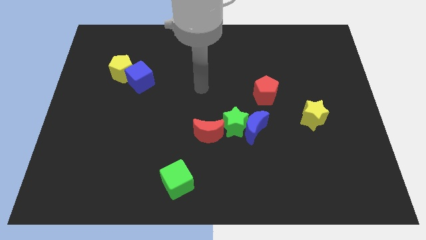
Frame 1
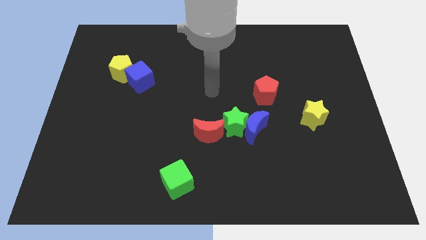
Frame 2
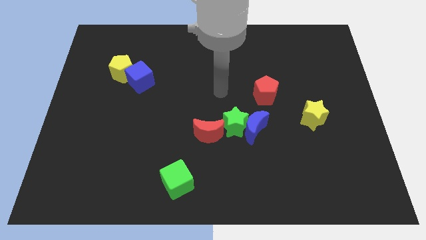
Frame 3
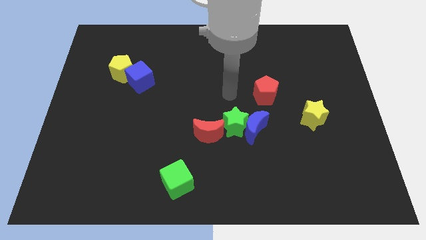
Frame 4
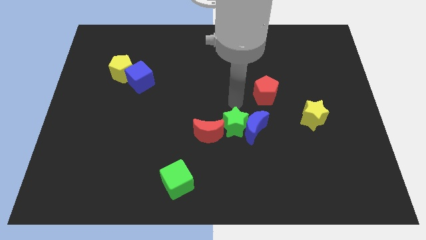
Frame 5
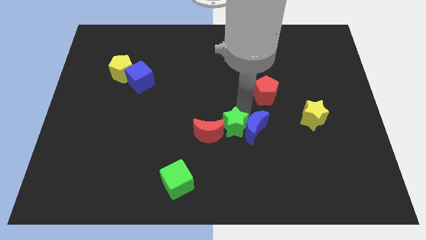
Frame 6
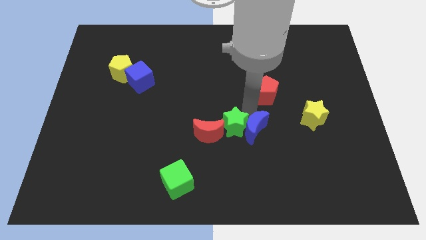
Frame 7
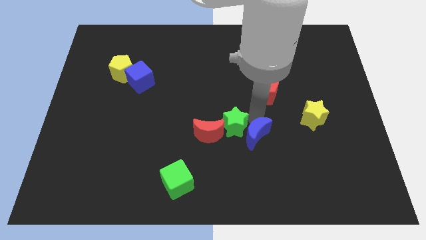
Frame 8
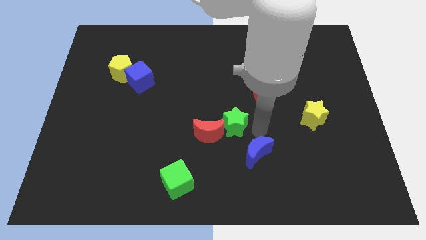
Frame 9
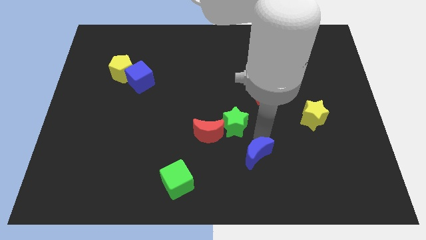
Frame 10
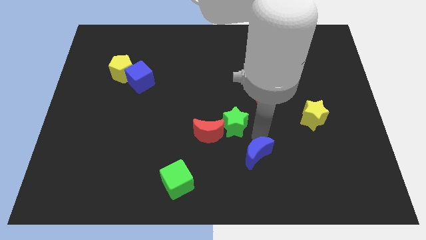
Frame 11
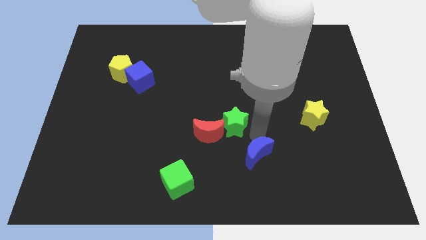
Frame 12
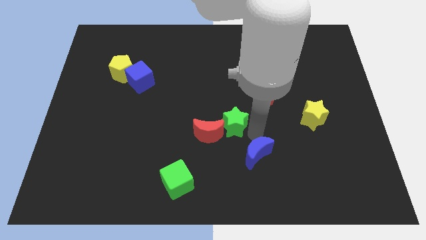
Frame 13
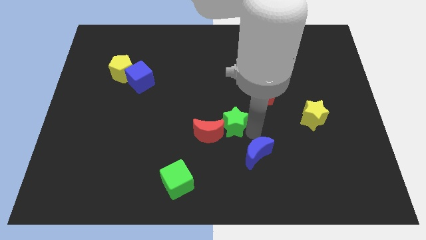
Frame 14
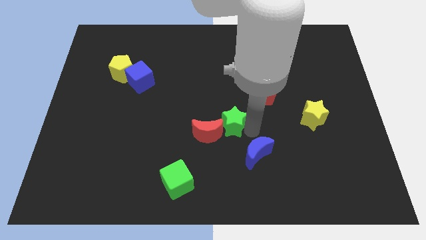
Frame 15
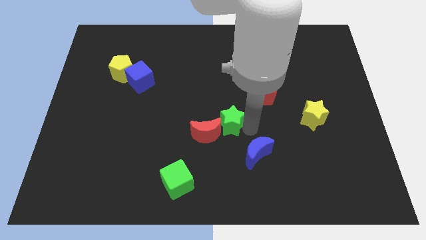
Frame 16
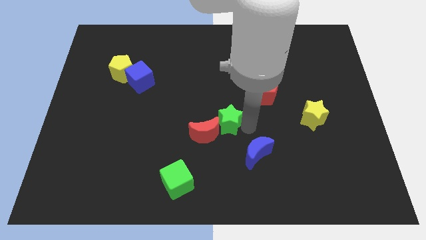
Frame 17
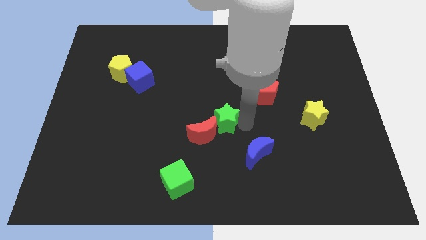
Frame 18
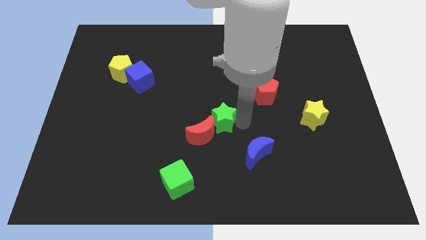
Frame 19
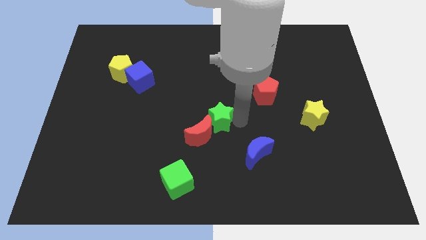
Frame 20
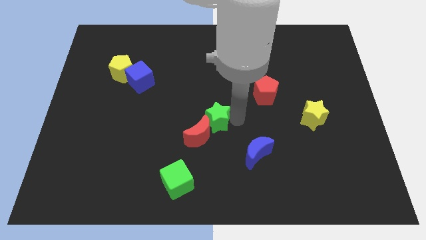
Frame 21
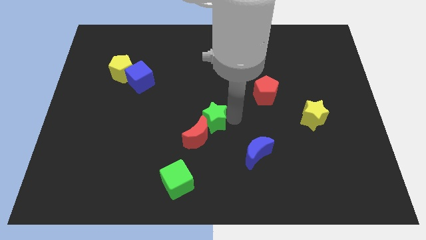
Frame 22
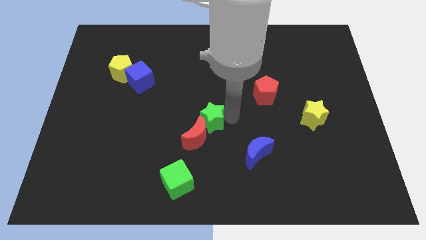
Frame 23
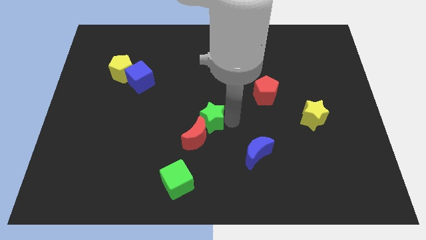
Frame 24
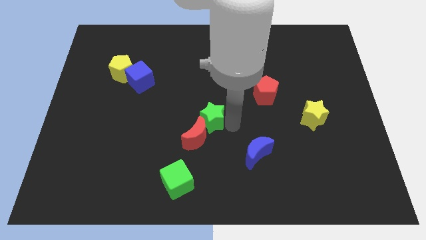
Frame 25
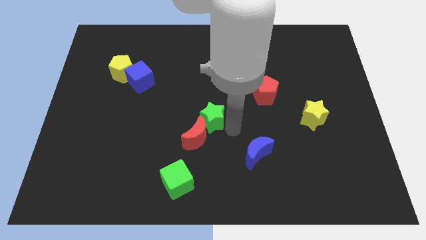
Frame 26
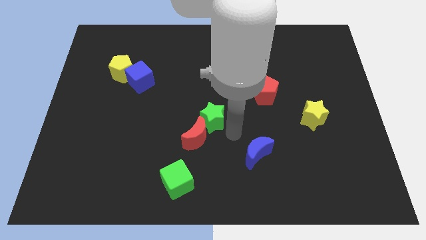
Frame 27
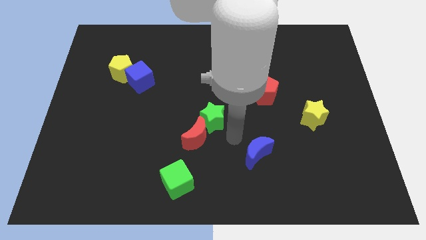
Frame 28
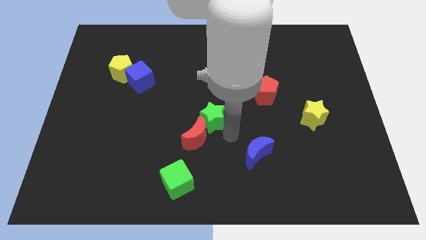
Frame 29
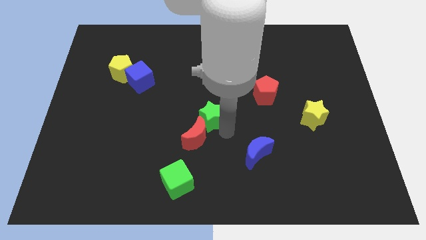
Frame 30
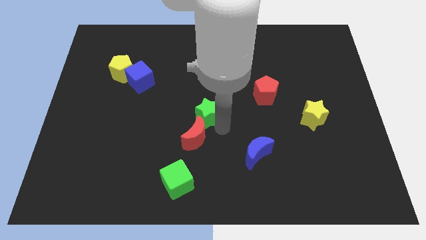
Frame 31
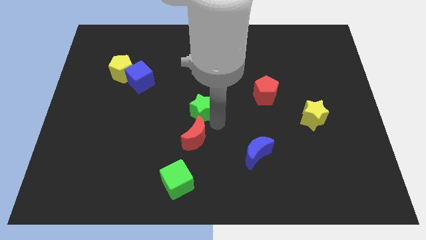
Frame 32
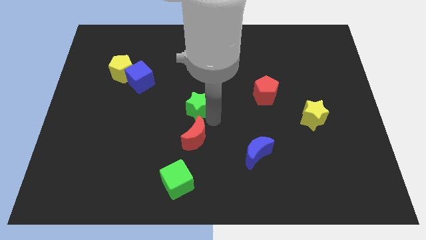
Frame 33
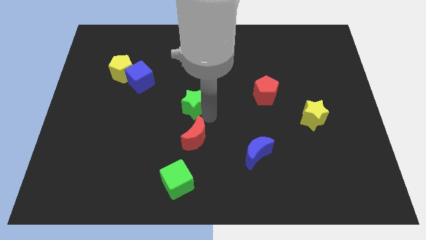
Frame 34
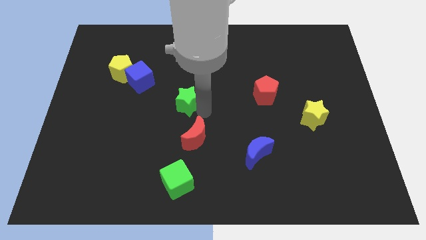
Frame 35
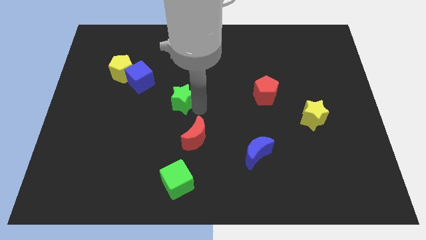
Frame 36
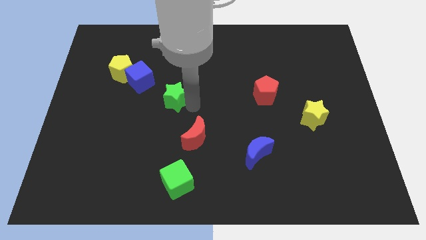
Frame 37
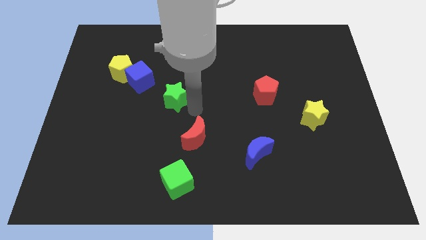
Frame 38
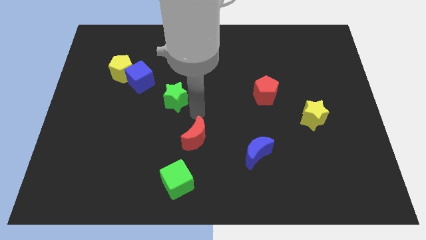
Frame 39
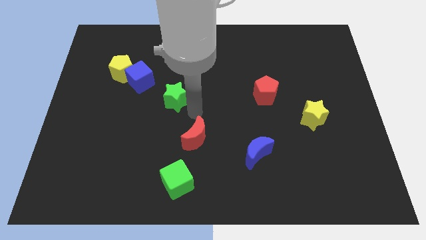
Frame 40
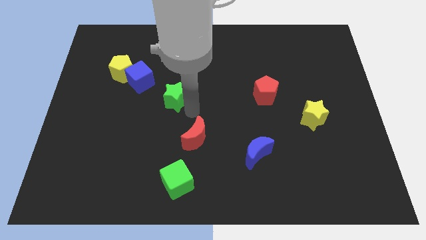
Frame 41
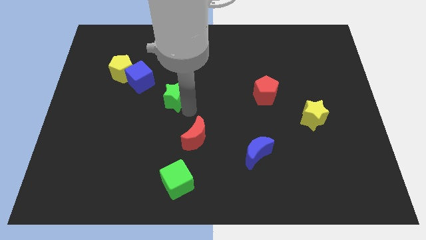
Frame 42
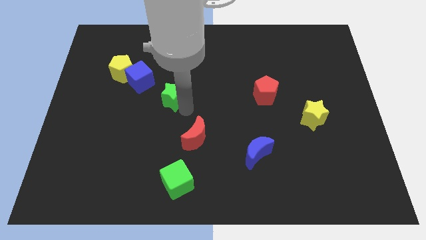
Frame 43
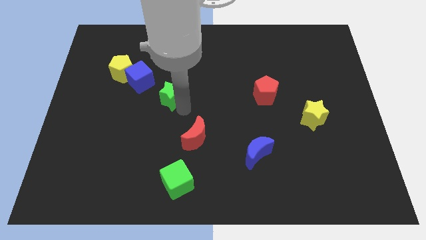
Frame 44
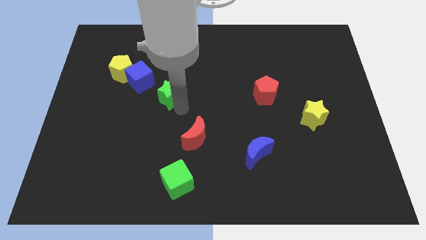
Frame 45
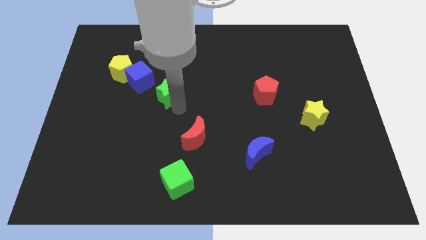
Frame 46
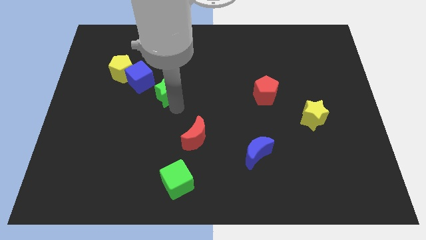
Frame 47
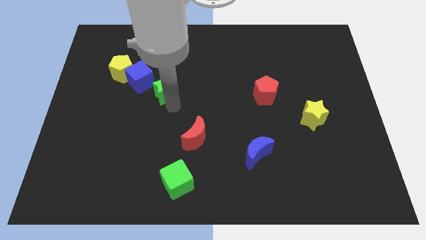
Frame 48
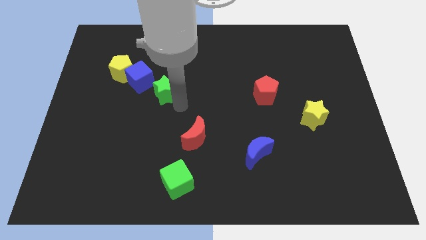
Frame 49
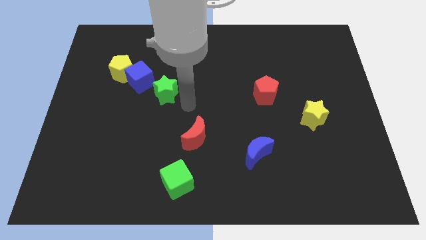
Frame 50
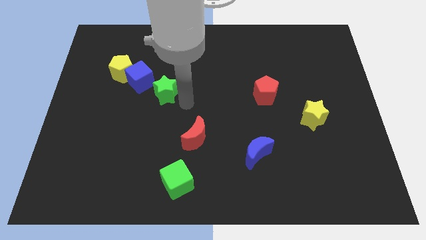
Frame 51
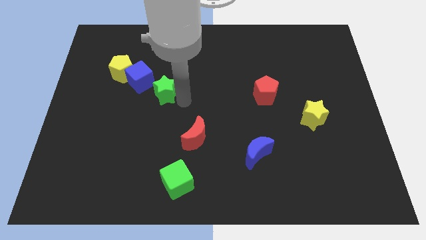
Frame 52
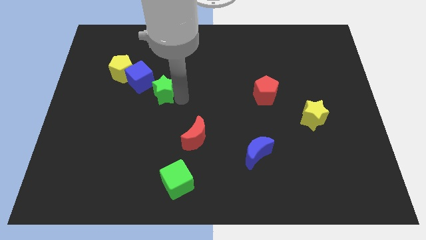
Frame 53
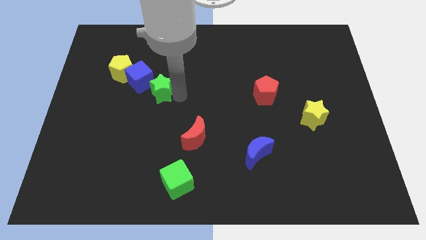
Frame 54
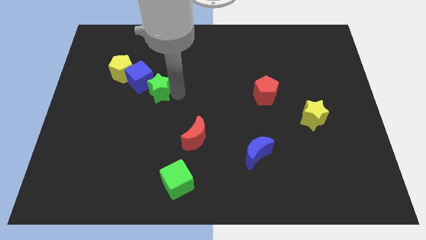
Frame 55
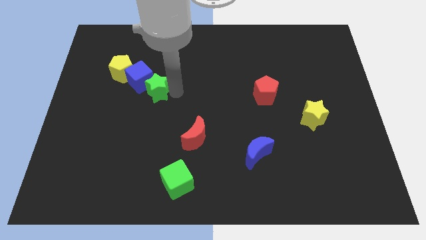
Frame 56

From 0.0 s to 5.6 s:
slide the green star to the blue cube

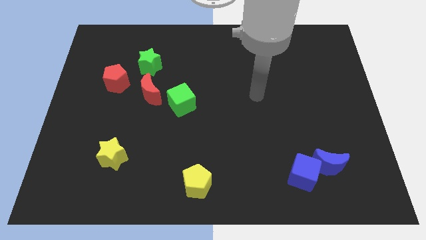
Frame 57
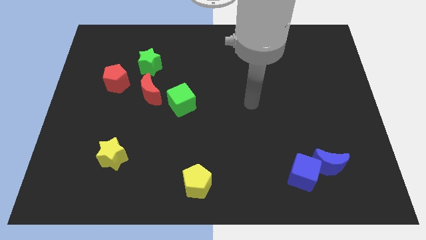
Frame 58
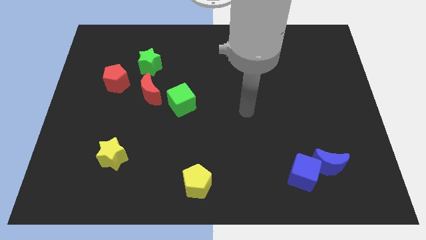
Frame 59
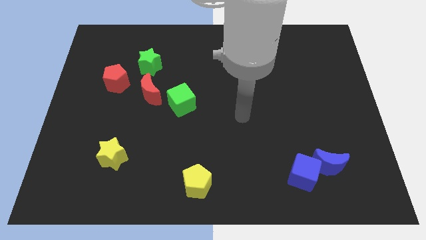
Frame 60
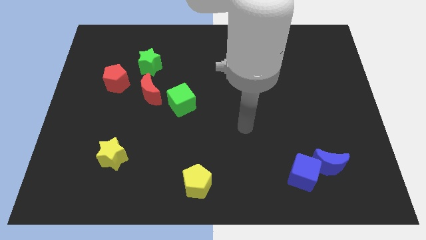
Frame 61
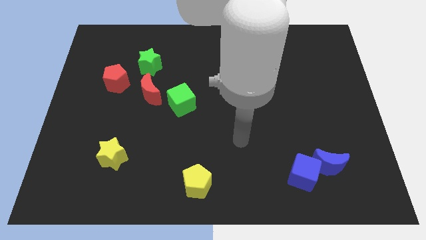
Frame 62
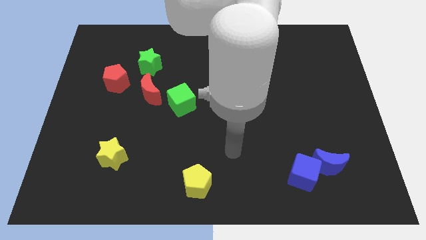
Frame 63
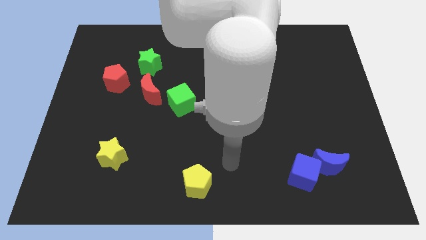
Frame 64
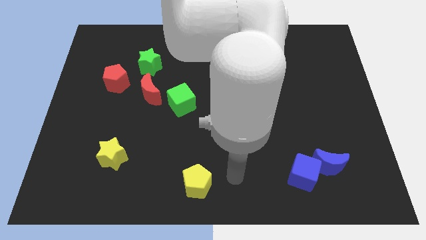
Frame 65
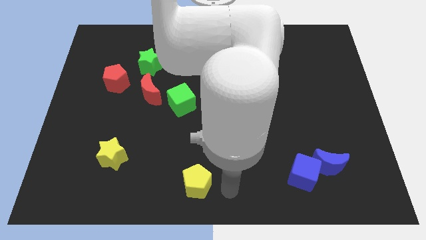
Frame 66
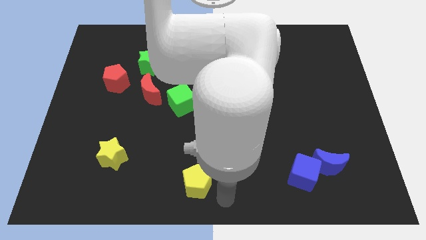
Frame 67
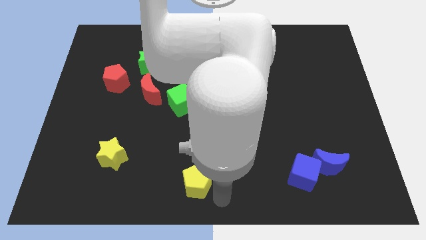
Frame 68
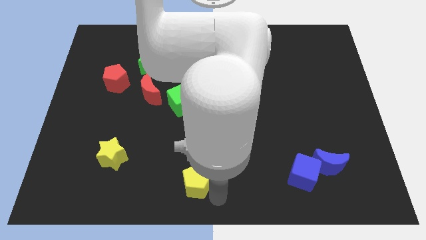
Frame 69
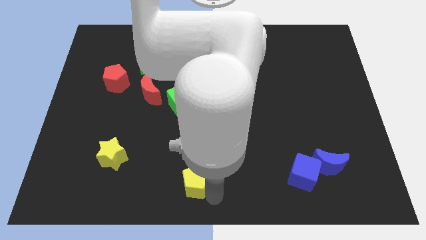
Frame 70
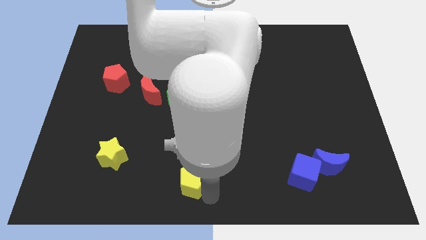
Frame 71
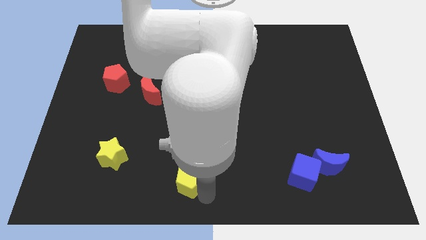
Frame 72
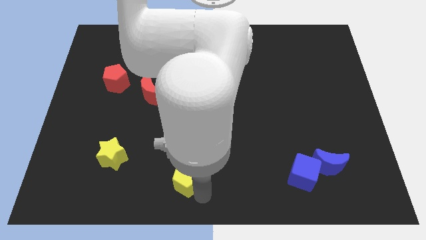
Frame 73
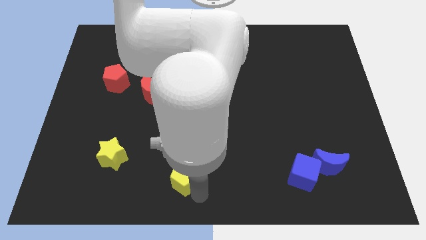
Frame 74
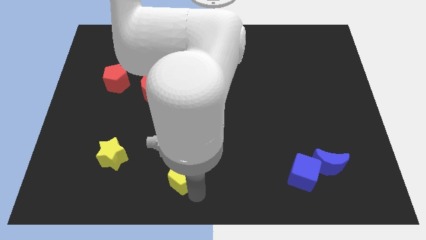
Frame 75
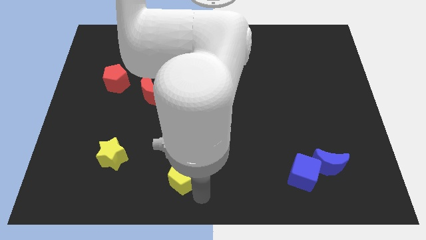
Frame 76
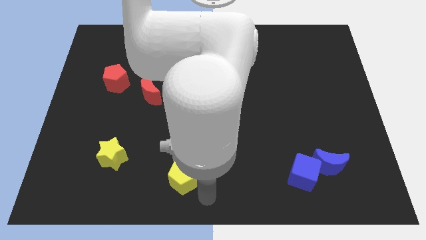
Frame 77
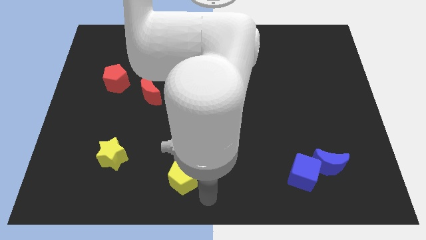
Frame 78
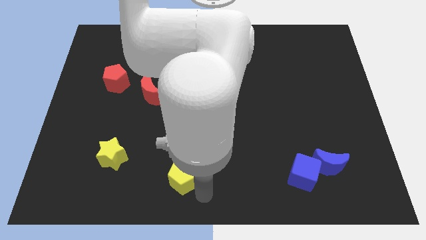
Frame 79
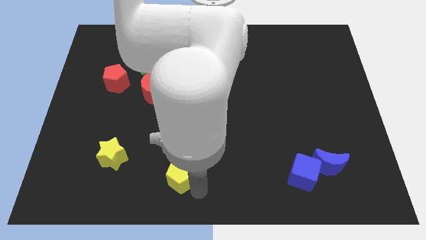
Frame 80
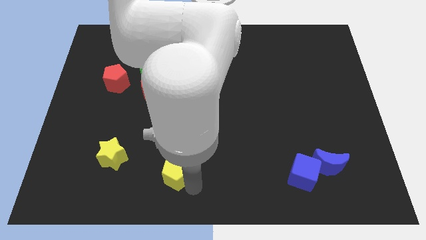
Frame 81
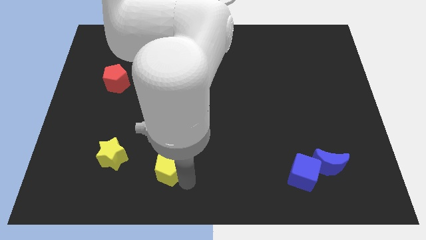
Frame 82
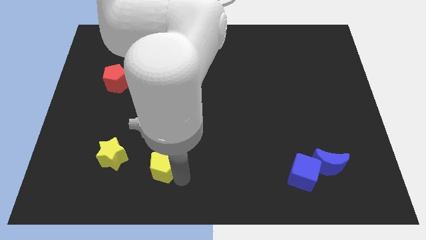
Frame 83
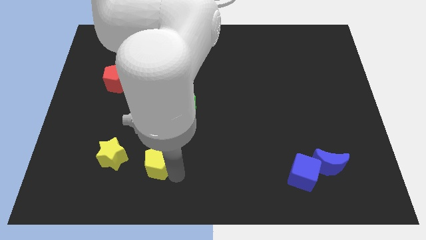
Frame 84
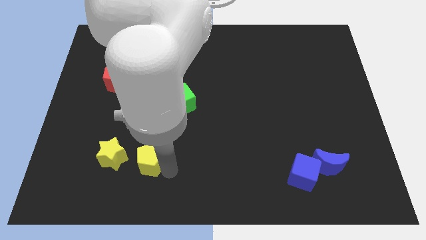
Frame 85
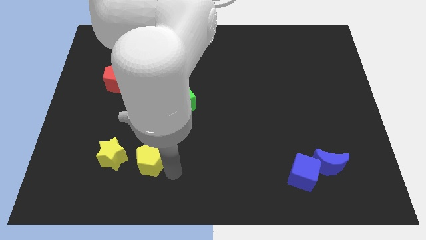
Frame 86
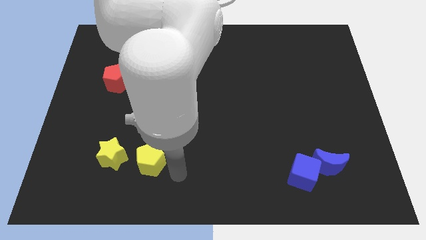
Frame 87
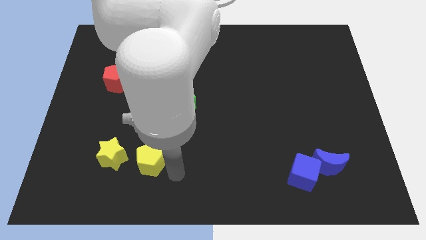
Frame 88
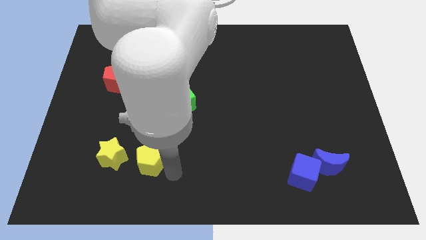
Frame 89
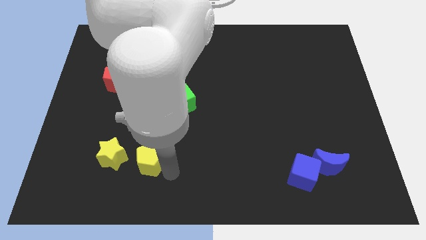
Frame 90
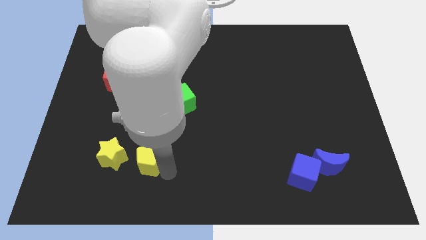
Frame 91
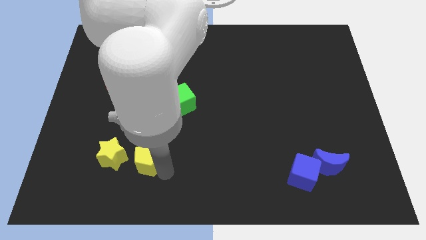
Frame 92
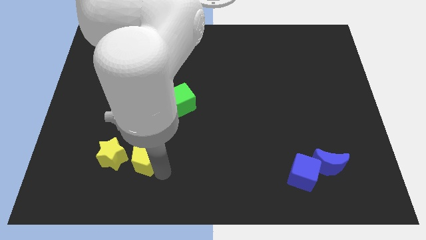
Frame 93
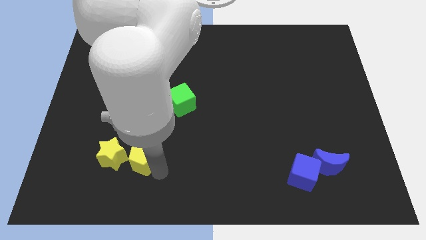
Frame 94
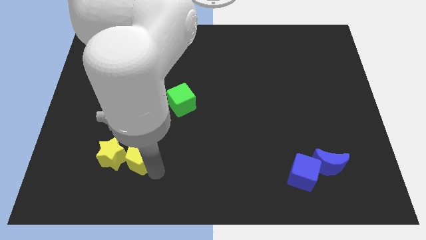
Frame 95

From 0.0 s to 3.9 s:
put the yellow pentagon close to the yellow star
